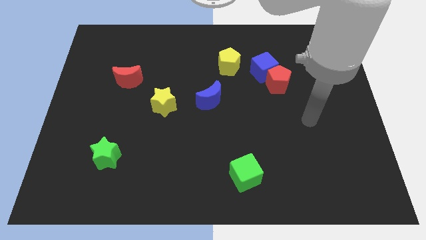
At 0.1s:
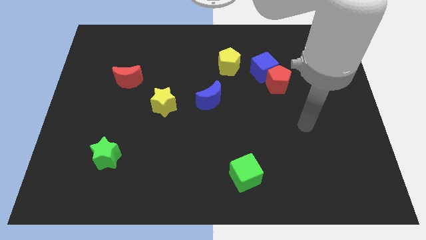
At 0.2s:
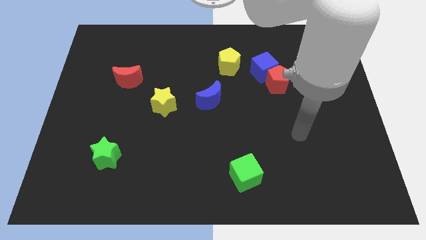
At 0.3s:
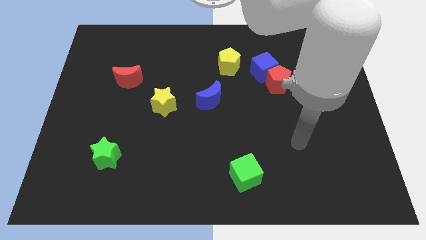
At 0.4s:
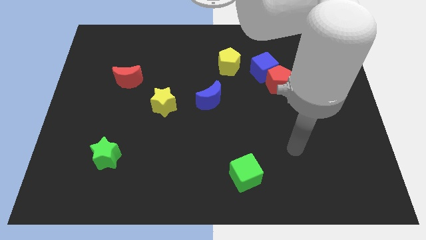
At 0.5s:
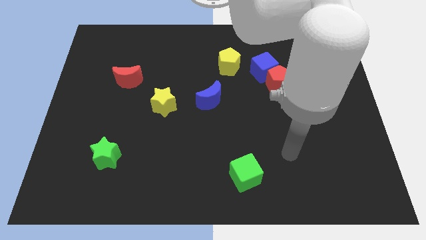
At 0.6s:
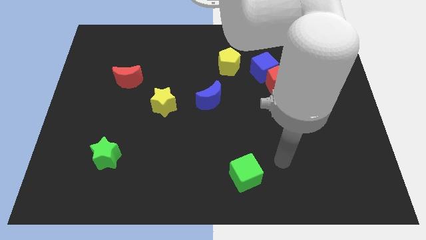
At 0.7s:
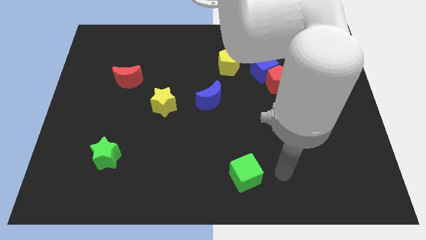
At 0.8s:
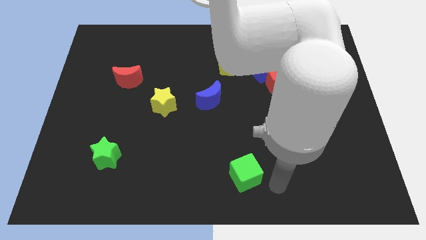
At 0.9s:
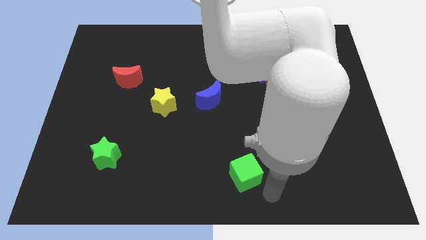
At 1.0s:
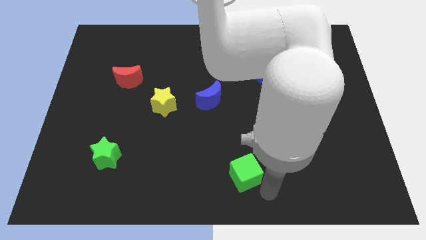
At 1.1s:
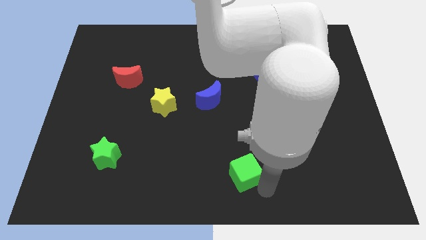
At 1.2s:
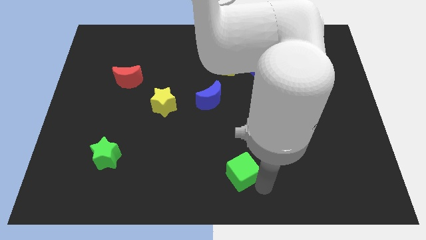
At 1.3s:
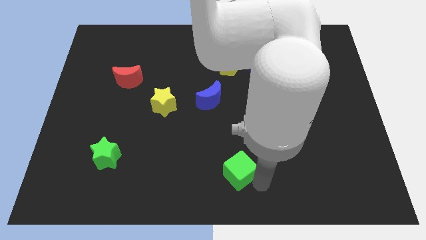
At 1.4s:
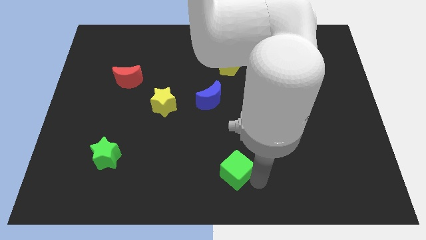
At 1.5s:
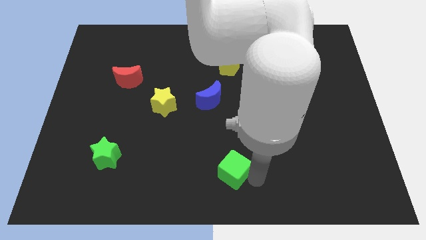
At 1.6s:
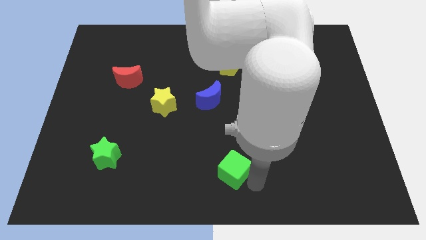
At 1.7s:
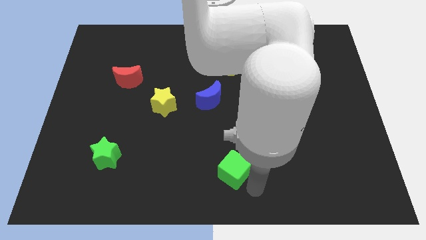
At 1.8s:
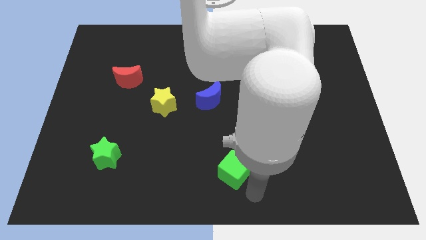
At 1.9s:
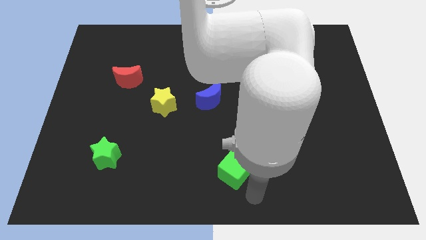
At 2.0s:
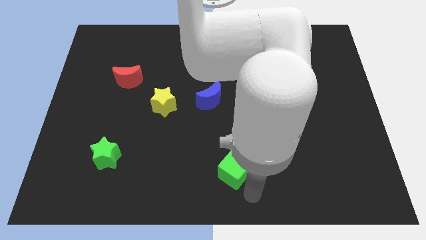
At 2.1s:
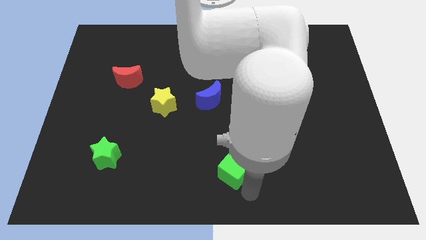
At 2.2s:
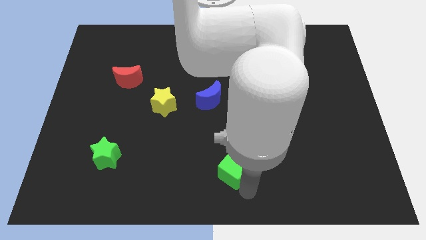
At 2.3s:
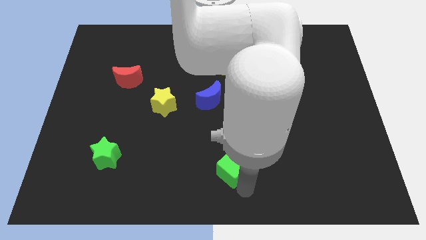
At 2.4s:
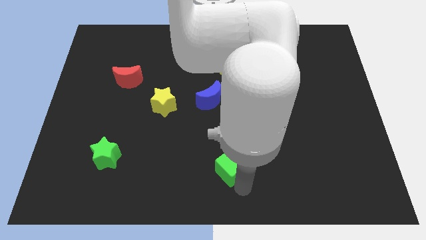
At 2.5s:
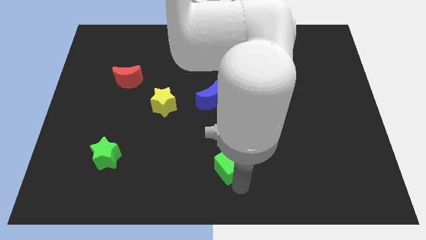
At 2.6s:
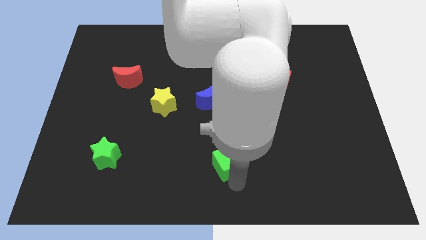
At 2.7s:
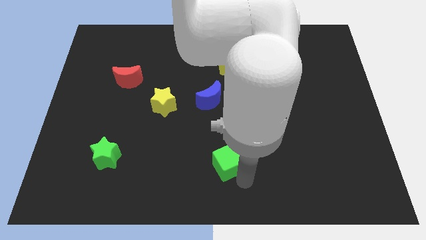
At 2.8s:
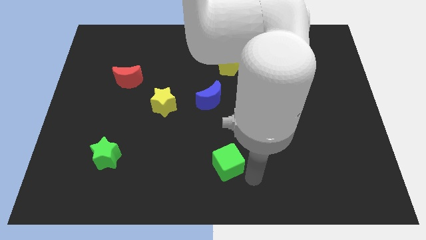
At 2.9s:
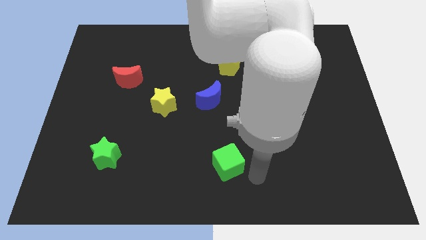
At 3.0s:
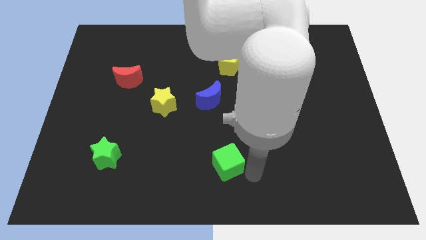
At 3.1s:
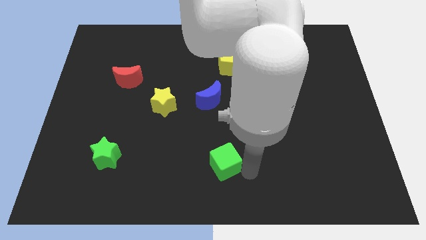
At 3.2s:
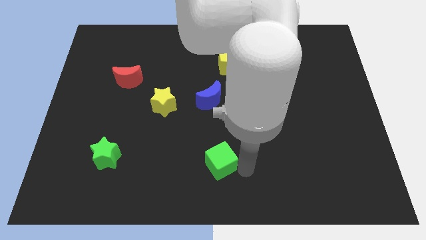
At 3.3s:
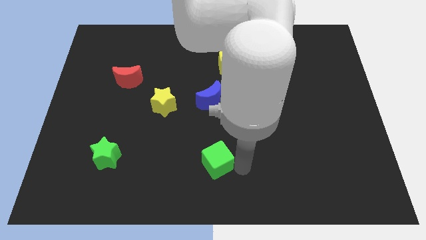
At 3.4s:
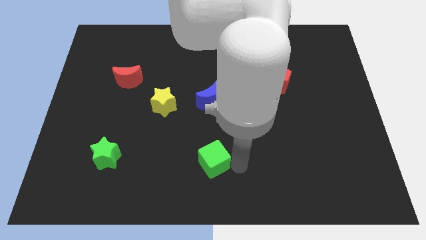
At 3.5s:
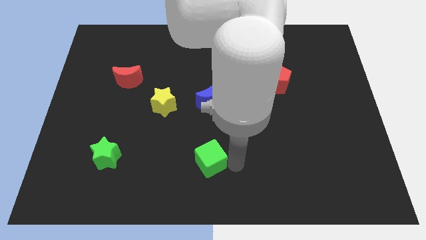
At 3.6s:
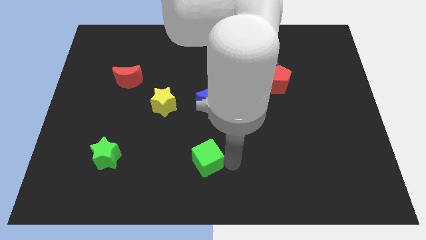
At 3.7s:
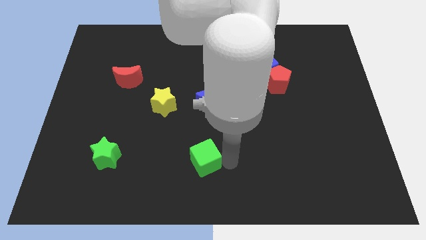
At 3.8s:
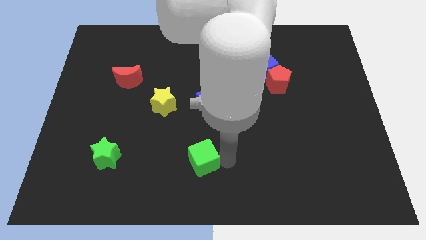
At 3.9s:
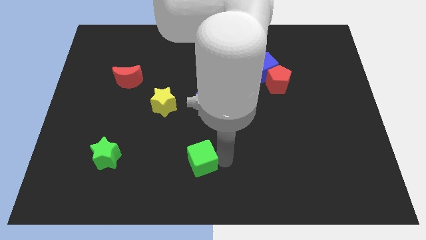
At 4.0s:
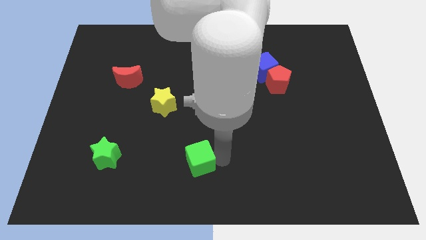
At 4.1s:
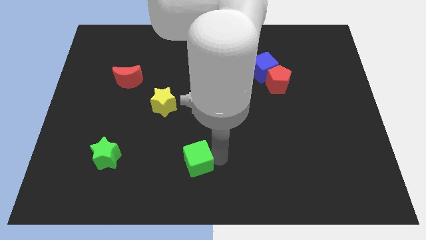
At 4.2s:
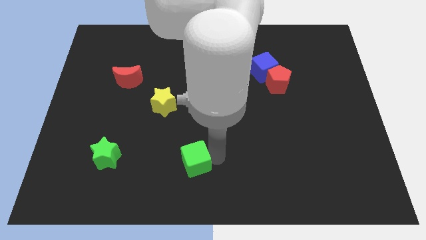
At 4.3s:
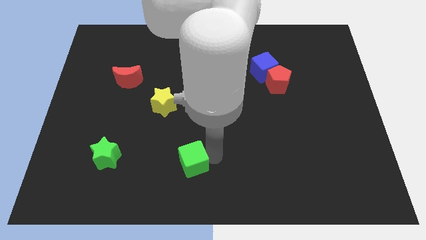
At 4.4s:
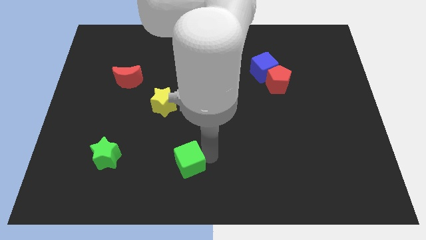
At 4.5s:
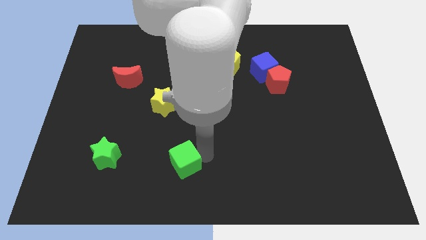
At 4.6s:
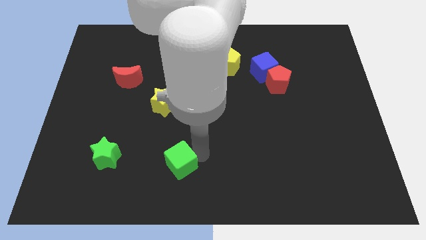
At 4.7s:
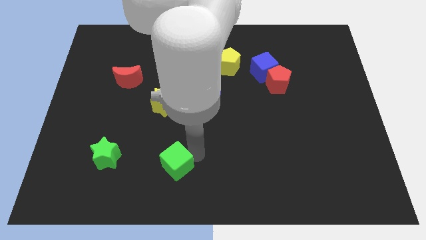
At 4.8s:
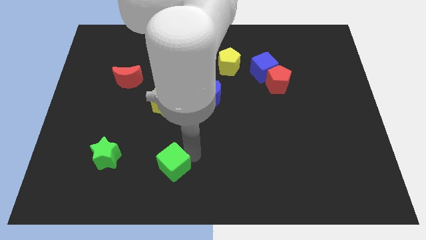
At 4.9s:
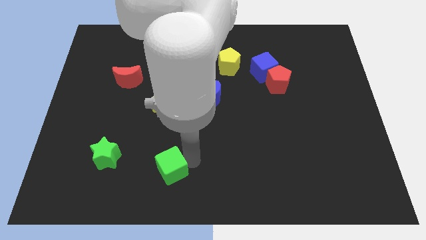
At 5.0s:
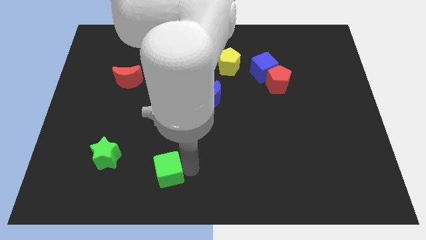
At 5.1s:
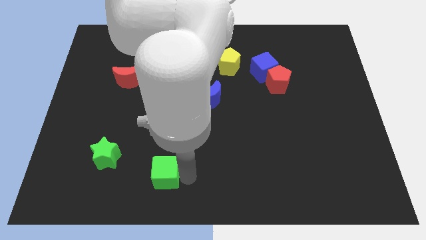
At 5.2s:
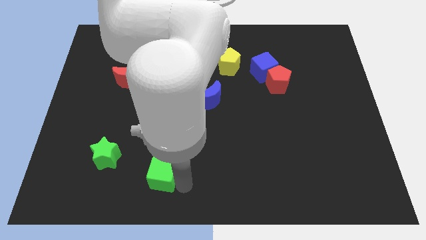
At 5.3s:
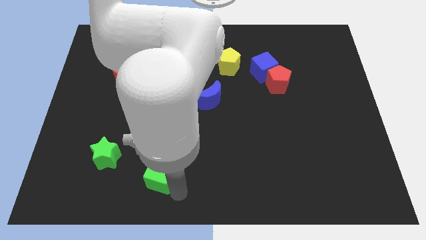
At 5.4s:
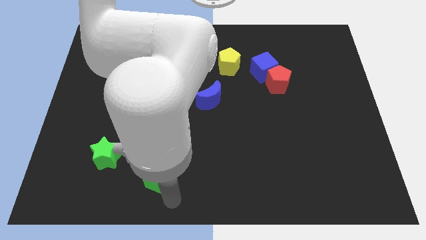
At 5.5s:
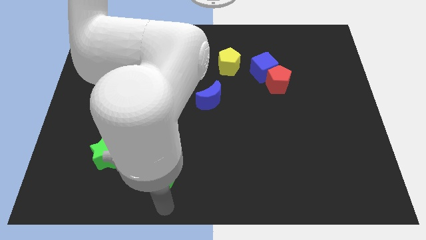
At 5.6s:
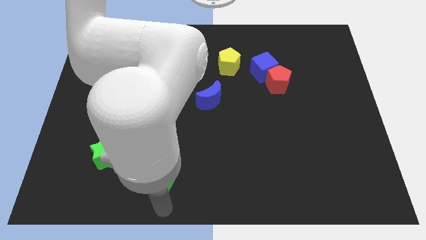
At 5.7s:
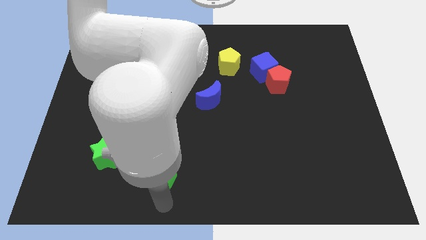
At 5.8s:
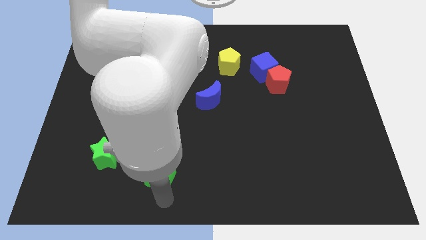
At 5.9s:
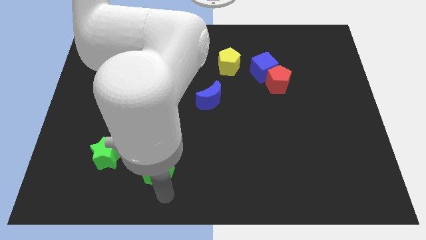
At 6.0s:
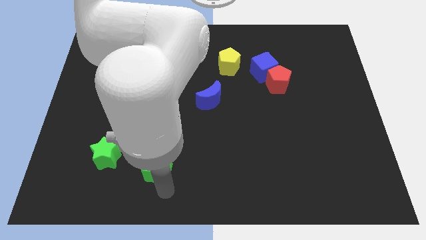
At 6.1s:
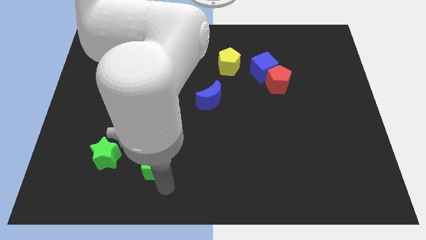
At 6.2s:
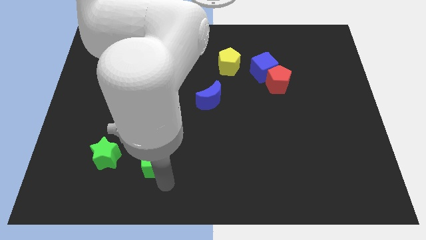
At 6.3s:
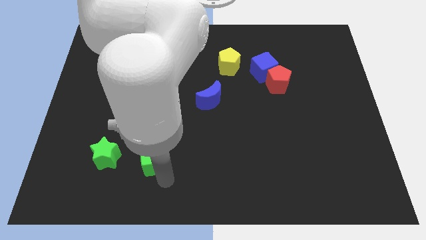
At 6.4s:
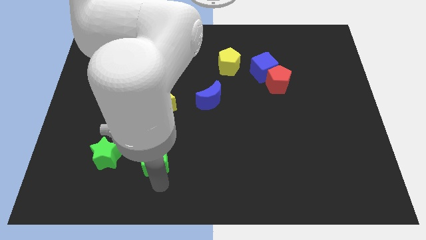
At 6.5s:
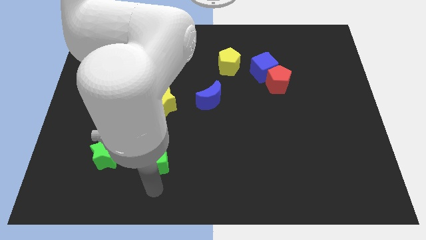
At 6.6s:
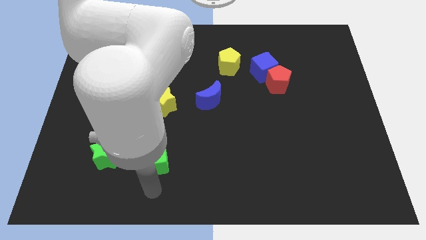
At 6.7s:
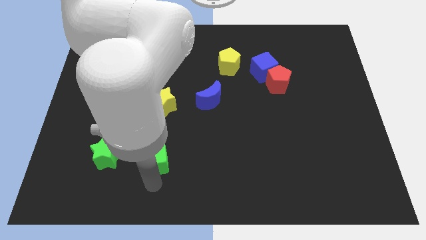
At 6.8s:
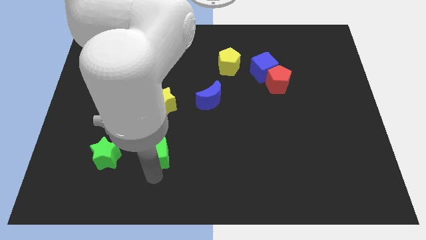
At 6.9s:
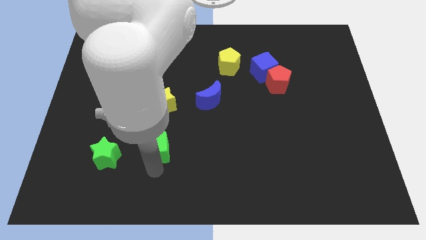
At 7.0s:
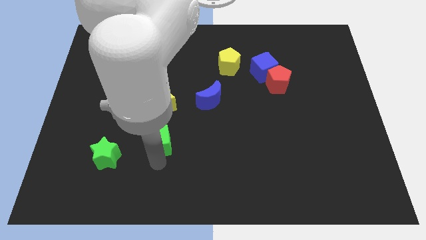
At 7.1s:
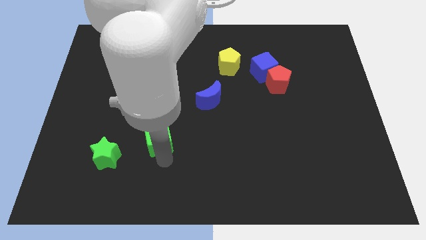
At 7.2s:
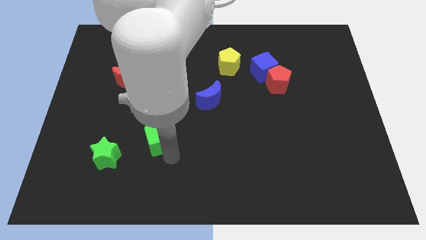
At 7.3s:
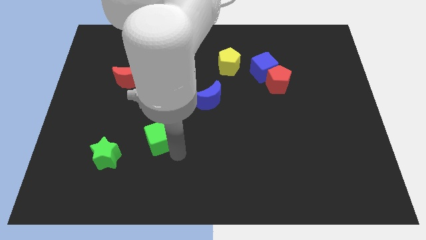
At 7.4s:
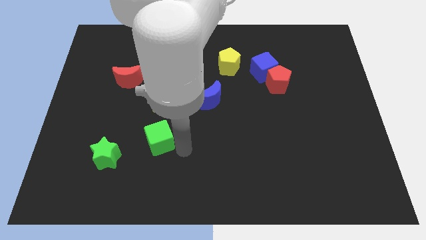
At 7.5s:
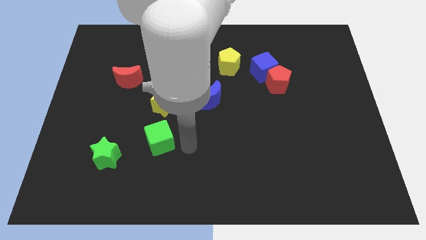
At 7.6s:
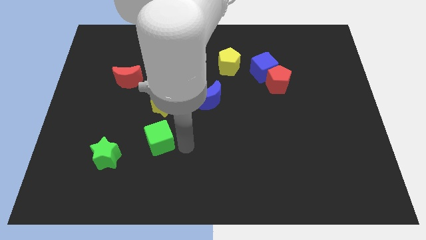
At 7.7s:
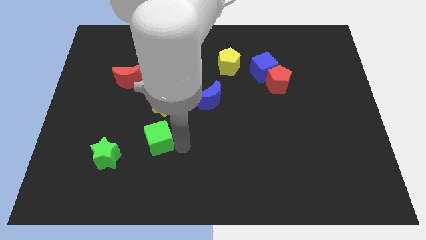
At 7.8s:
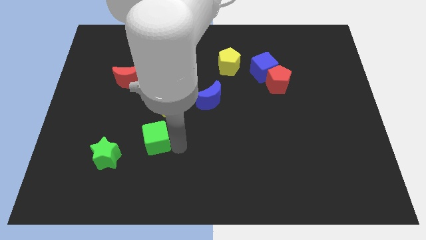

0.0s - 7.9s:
slide the green cube to the top right of the green star
